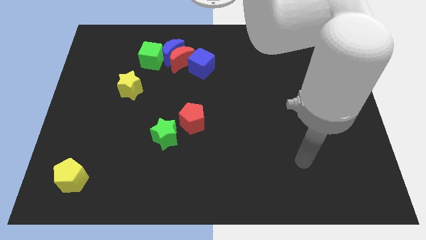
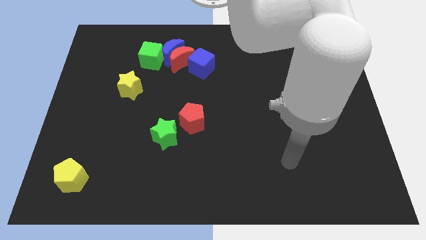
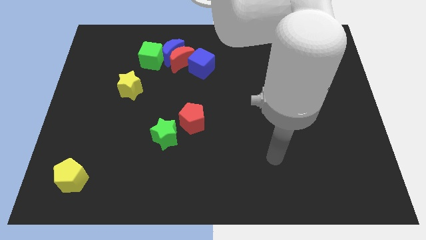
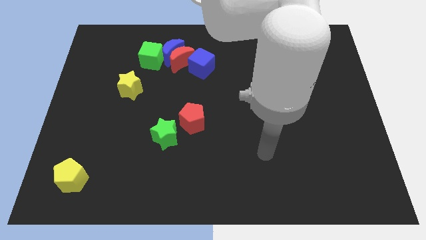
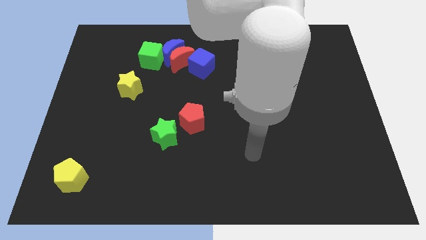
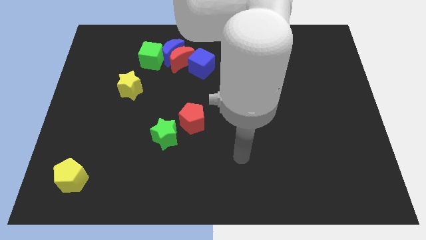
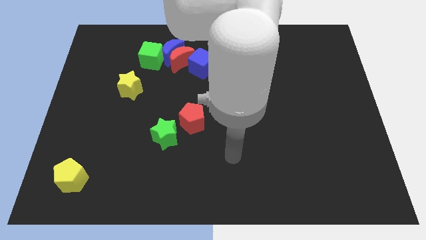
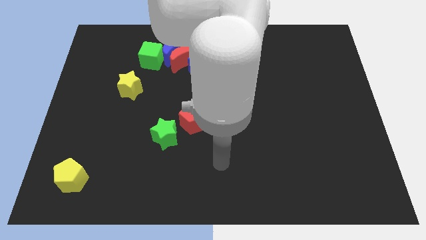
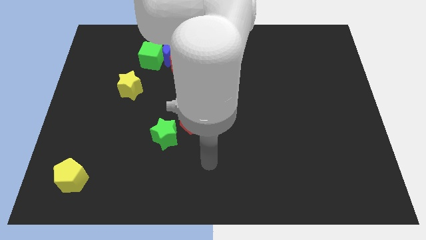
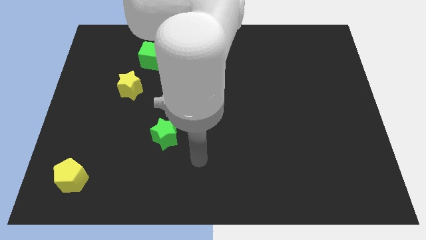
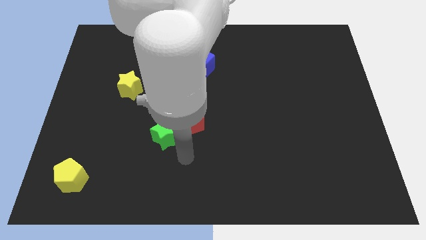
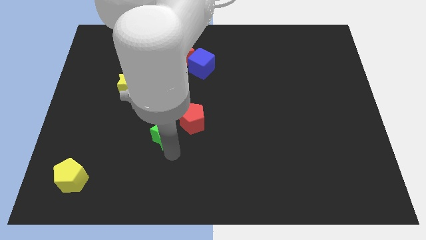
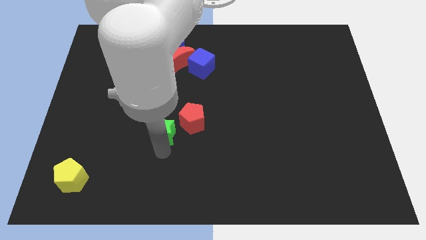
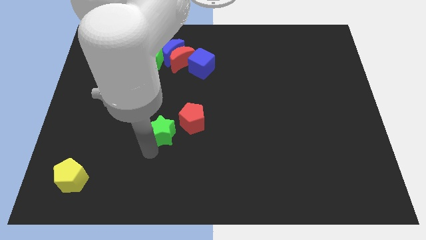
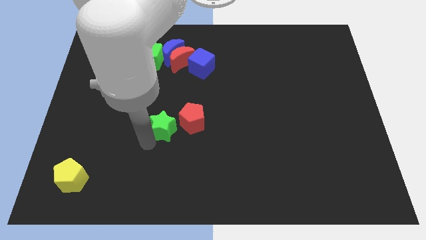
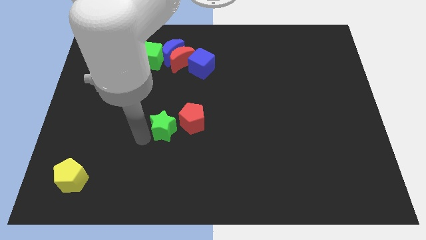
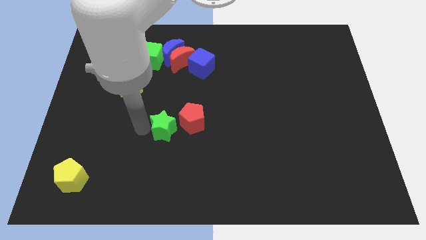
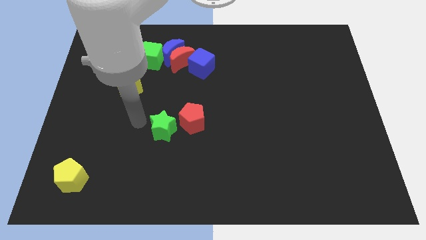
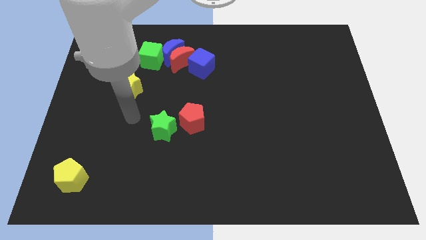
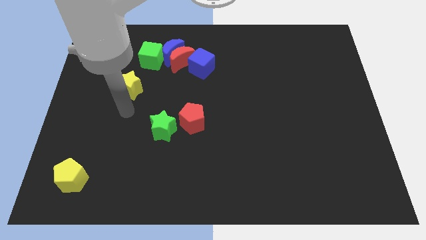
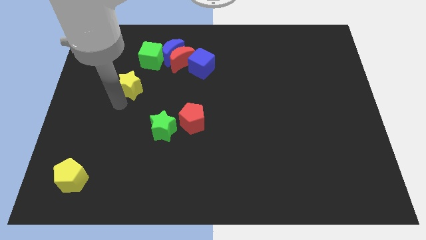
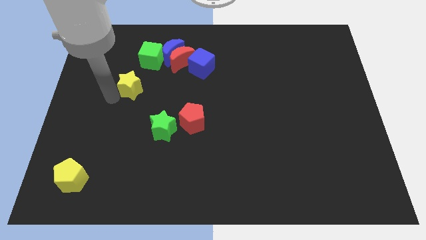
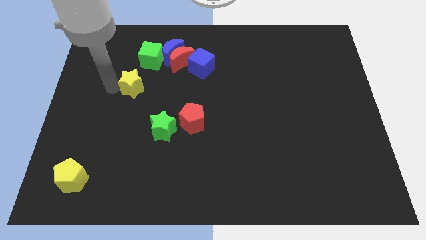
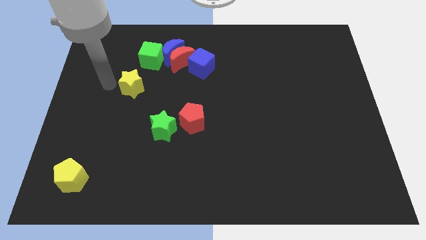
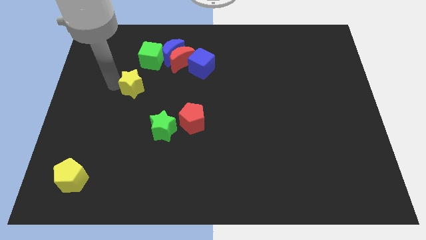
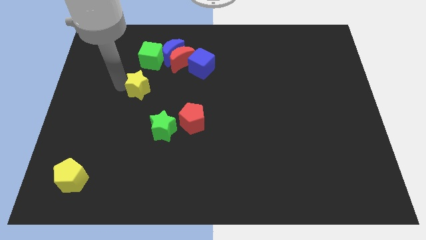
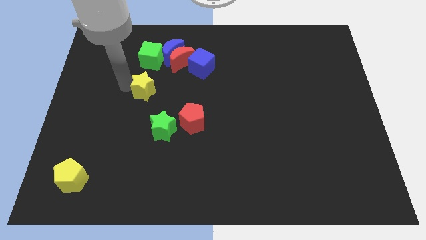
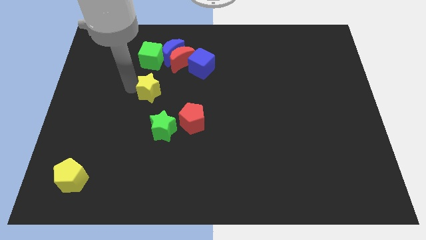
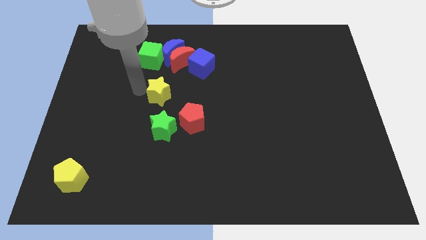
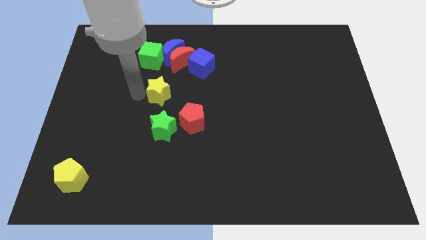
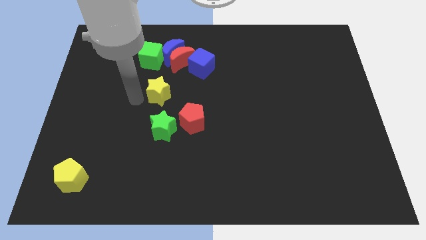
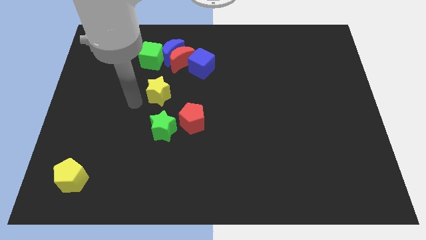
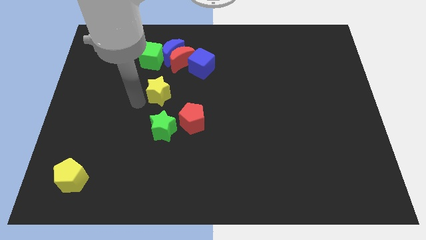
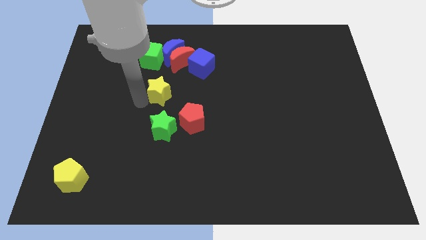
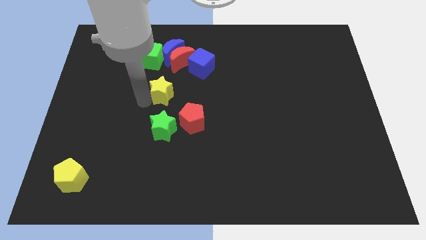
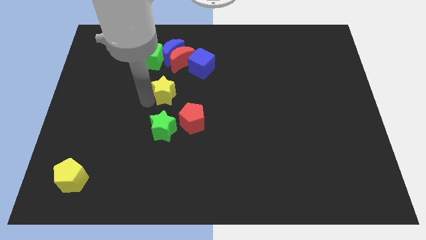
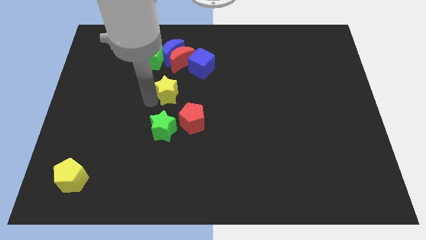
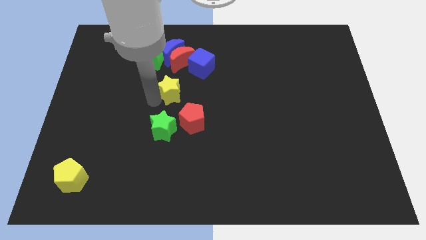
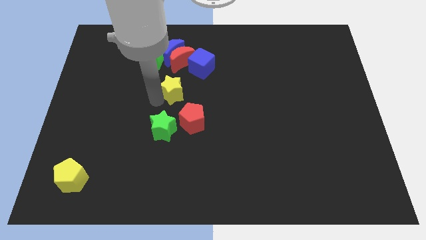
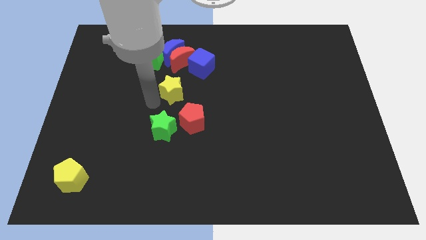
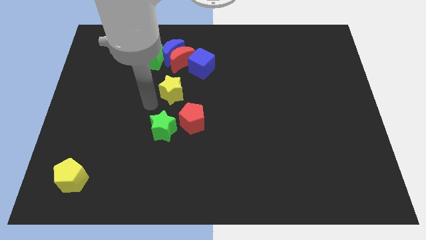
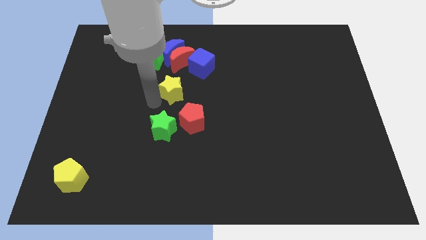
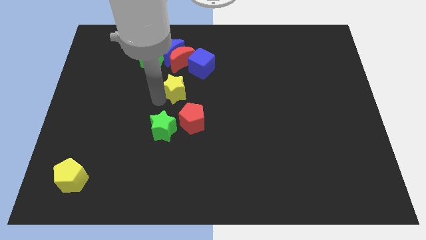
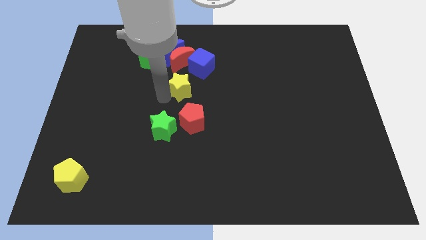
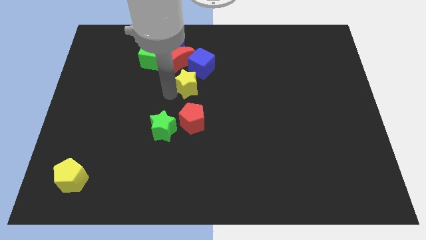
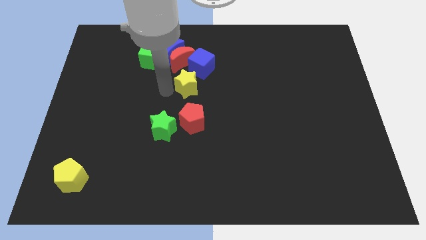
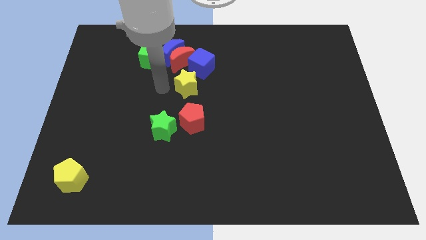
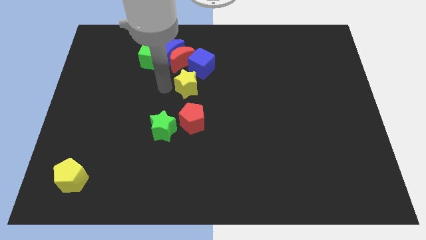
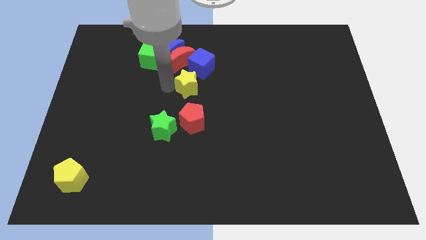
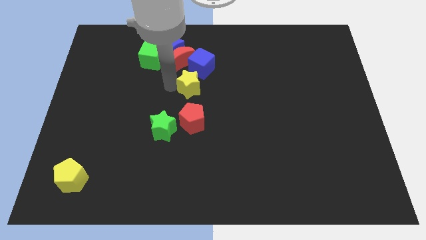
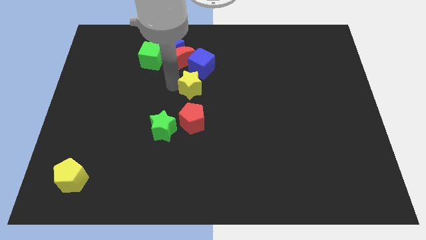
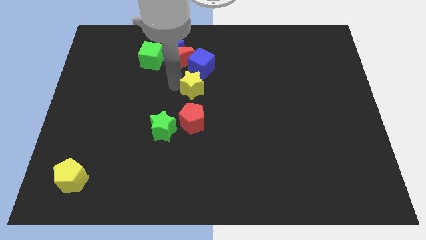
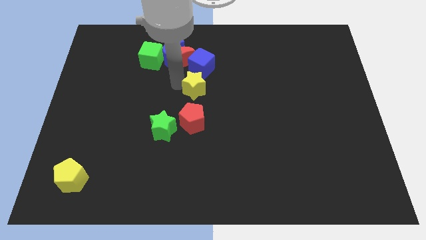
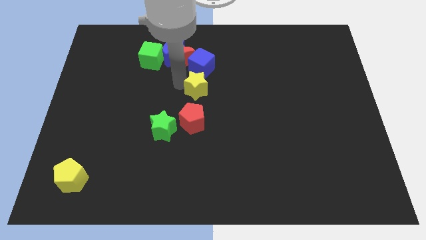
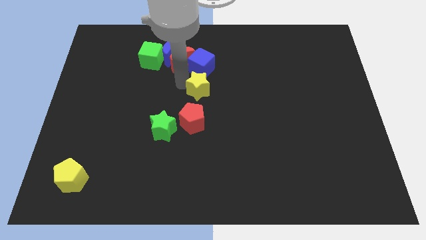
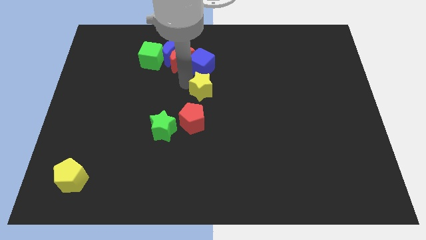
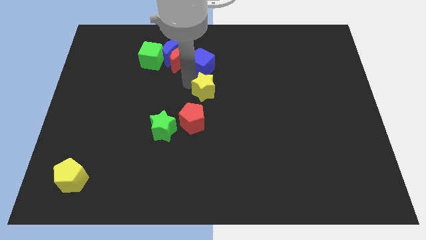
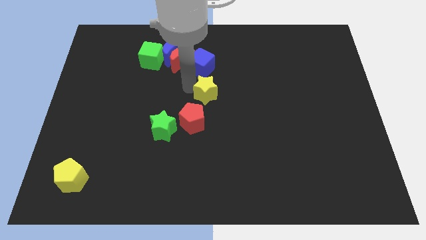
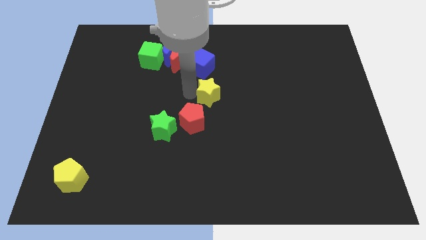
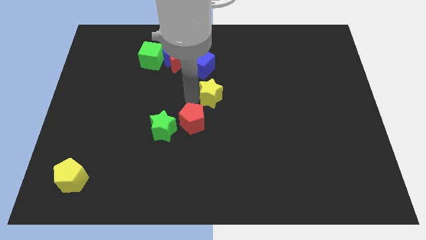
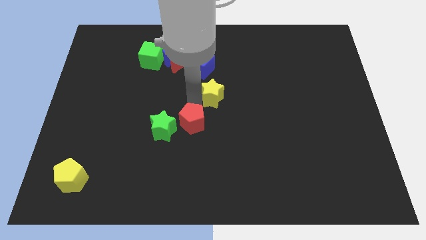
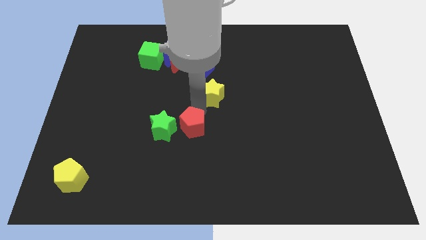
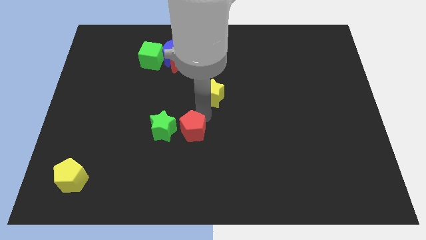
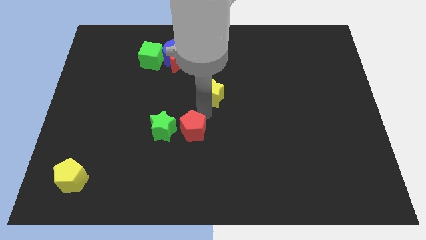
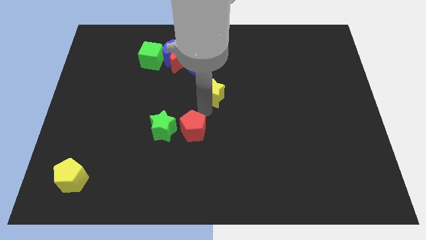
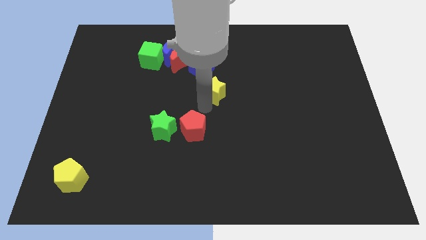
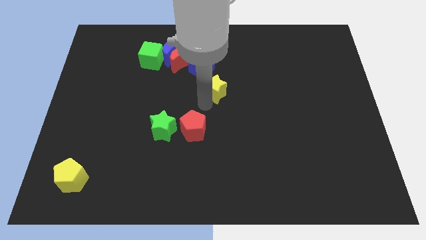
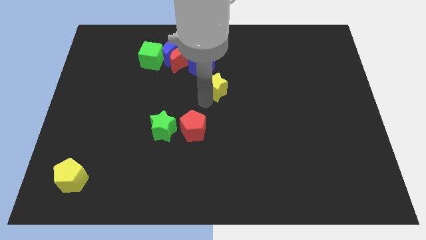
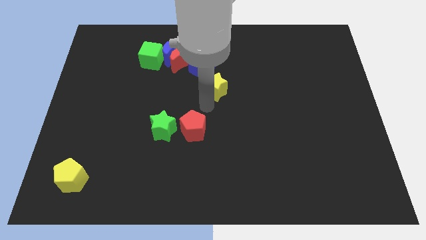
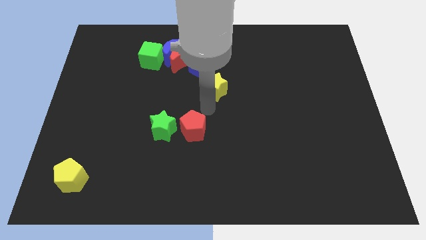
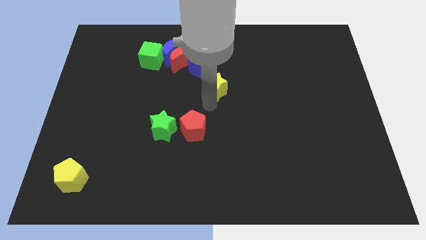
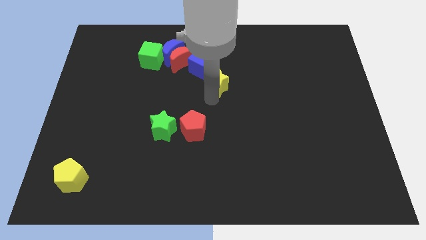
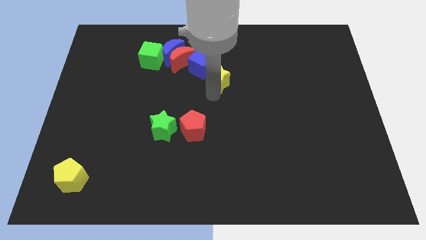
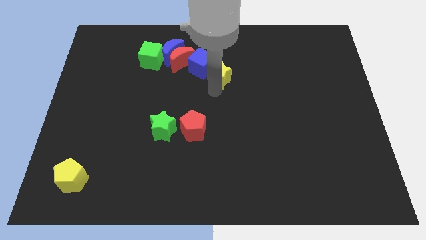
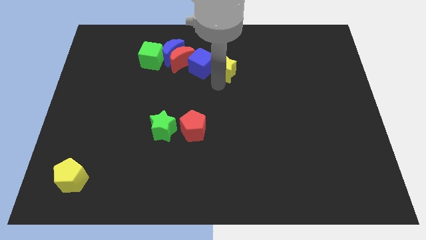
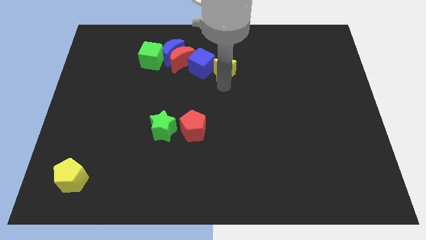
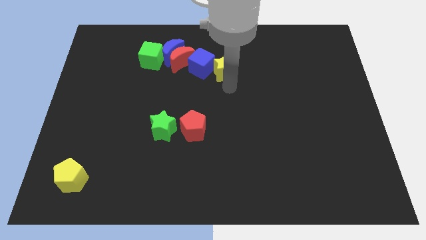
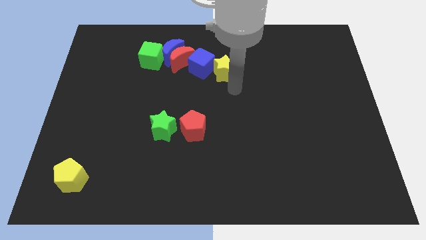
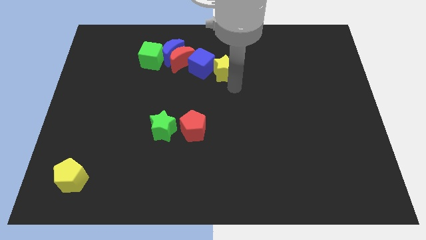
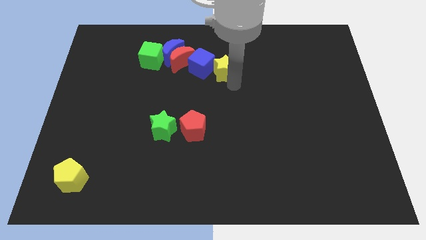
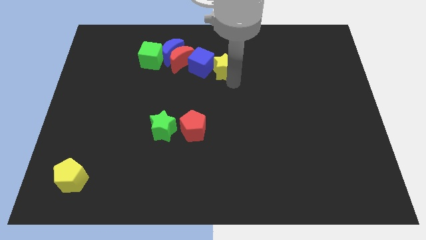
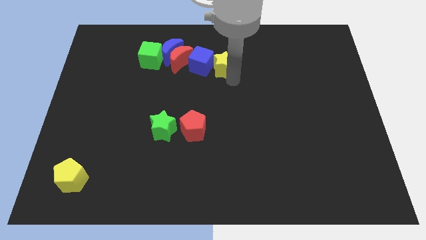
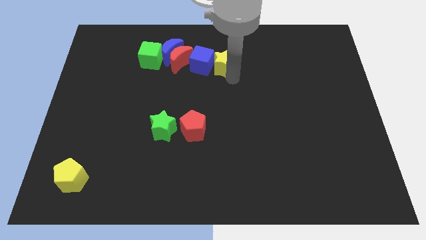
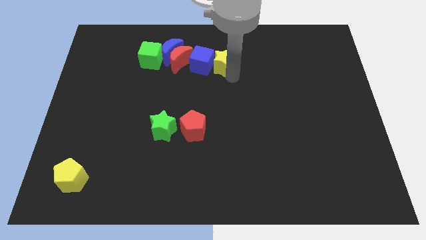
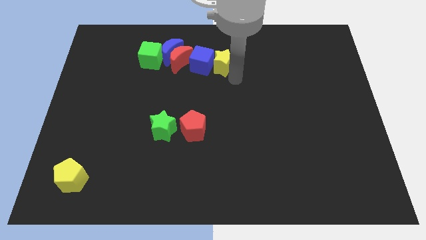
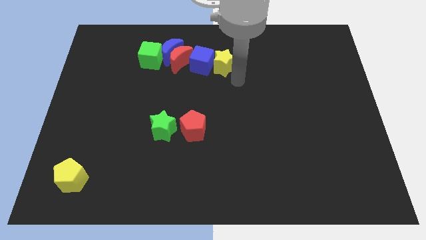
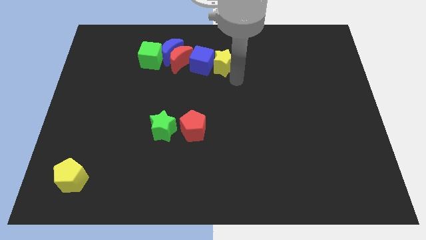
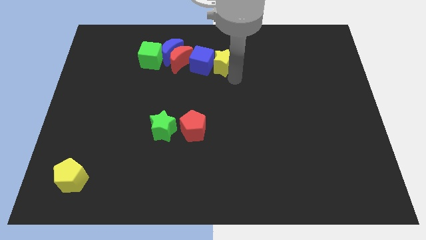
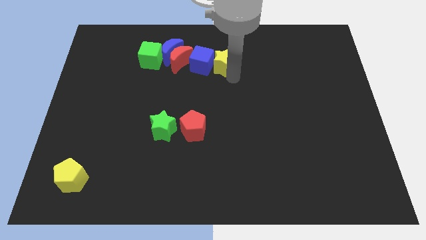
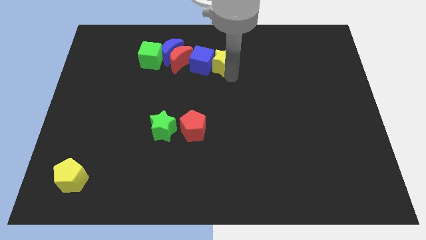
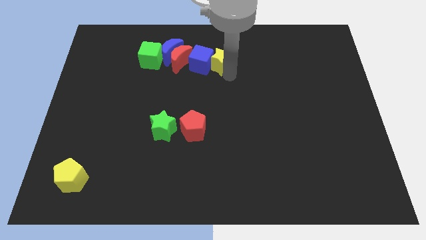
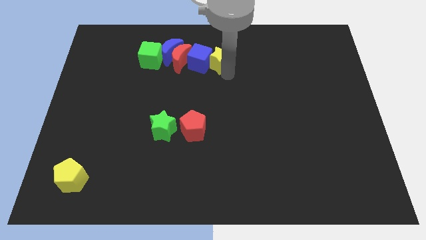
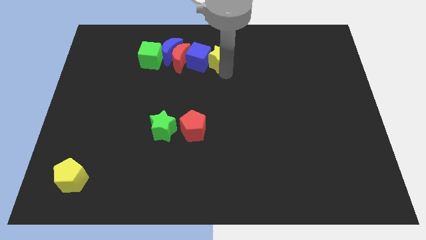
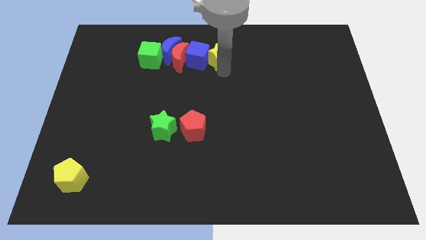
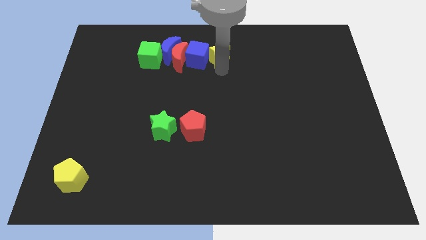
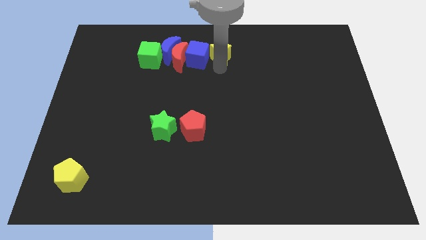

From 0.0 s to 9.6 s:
put the yellow star to the top side
